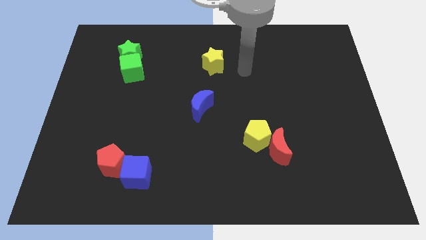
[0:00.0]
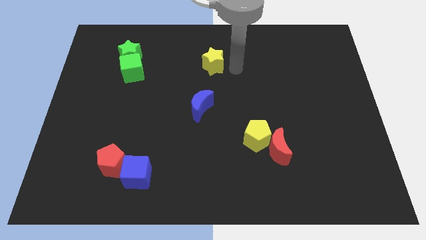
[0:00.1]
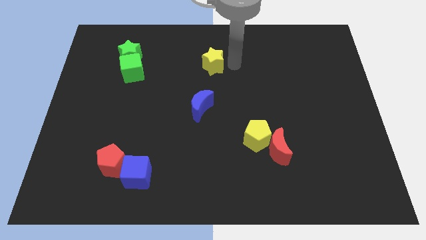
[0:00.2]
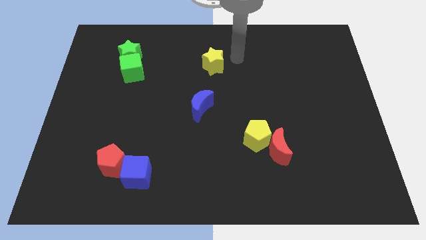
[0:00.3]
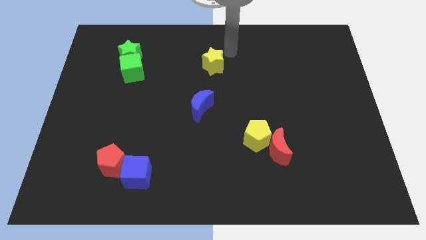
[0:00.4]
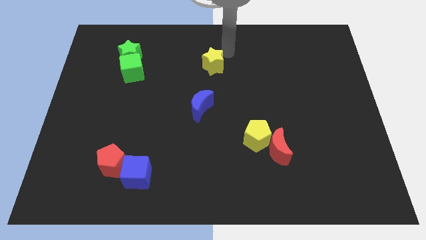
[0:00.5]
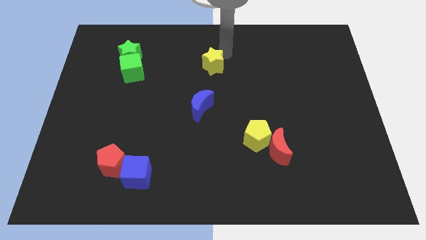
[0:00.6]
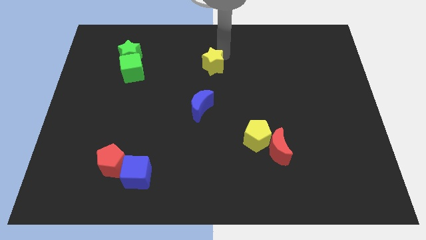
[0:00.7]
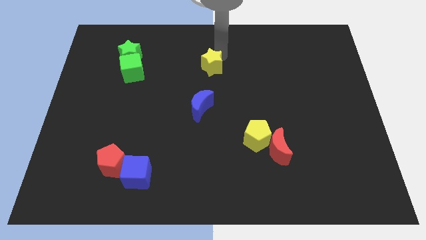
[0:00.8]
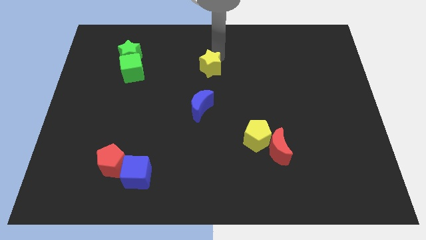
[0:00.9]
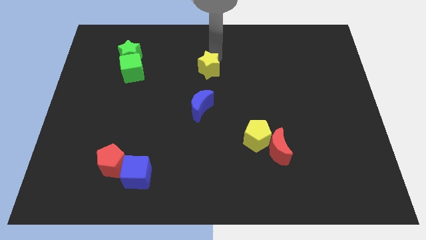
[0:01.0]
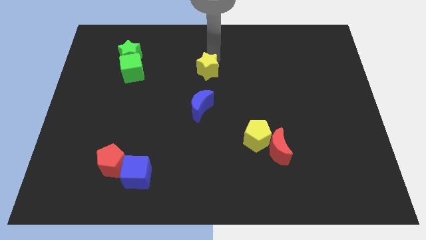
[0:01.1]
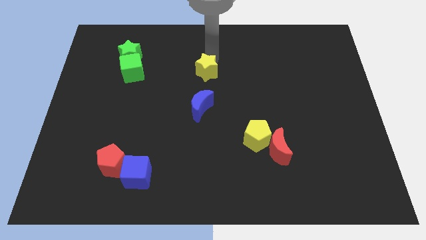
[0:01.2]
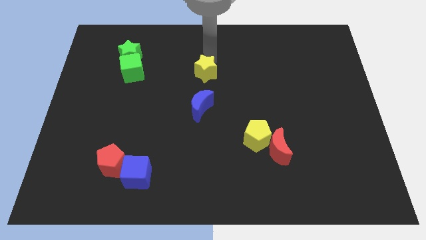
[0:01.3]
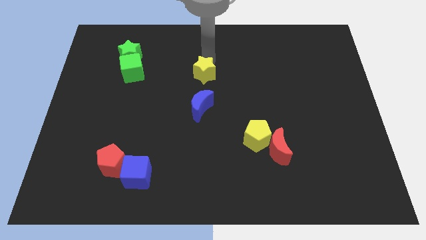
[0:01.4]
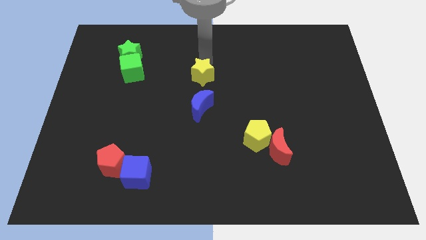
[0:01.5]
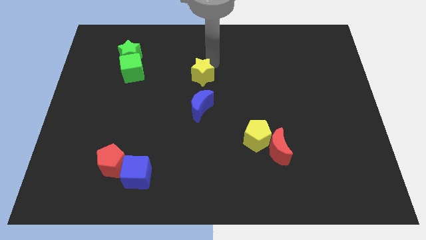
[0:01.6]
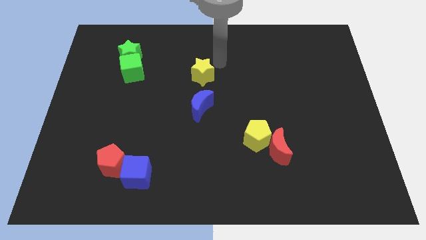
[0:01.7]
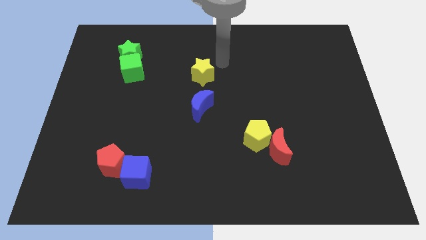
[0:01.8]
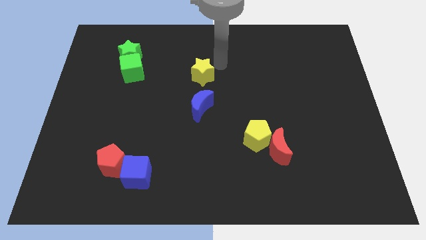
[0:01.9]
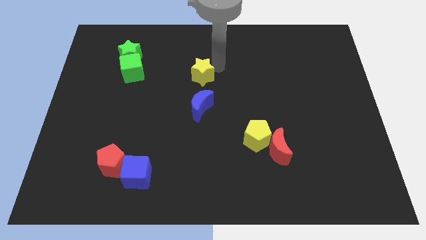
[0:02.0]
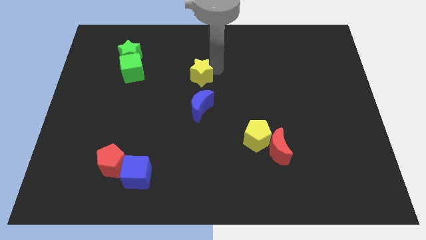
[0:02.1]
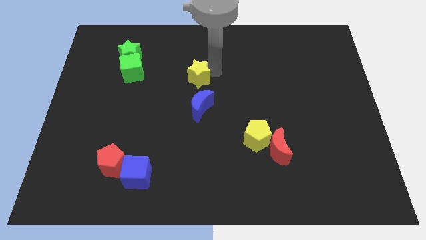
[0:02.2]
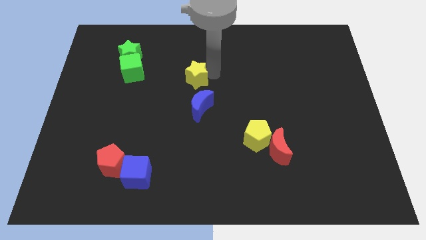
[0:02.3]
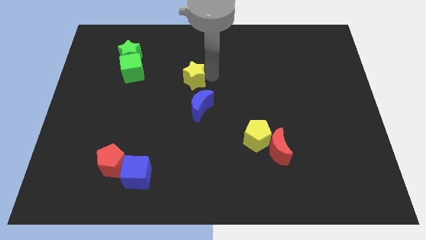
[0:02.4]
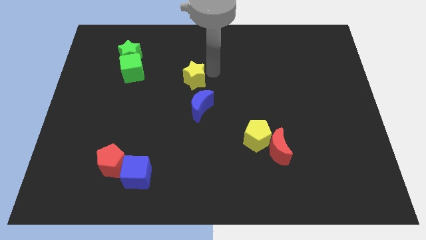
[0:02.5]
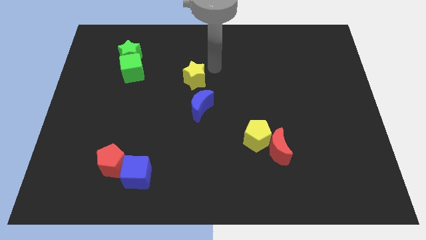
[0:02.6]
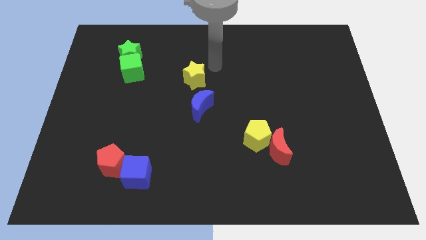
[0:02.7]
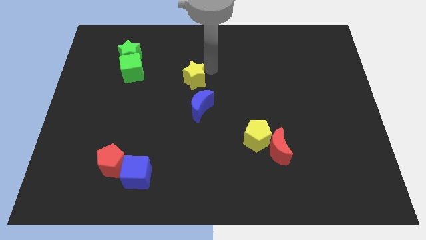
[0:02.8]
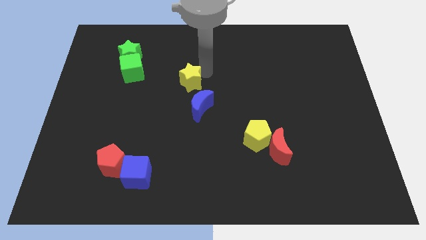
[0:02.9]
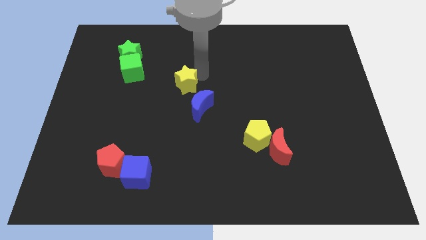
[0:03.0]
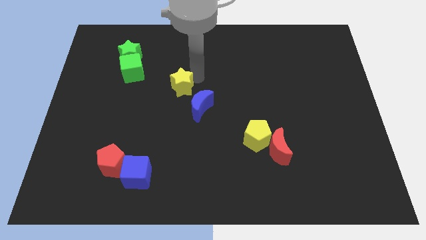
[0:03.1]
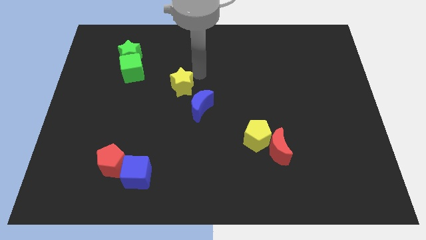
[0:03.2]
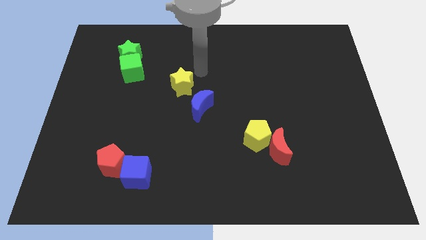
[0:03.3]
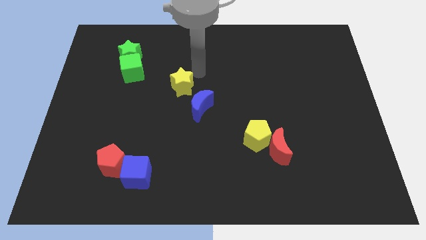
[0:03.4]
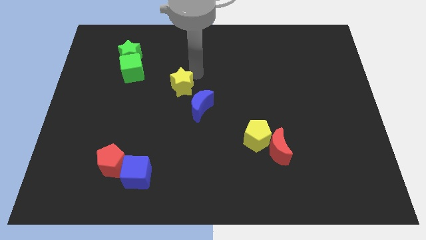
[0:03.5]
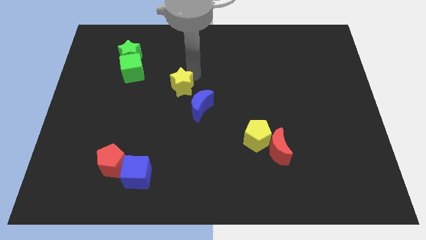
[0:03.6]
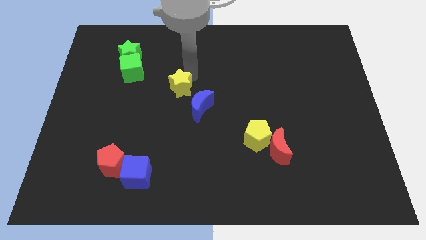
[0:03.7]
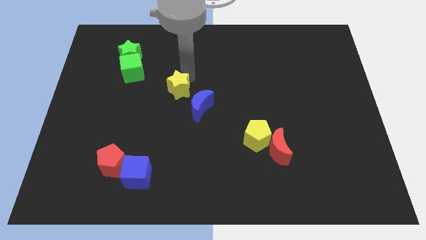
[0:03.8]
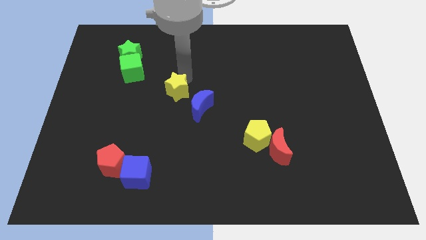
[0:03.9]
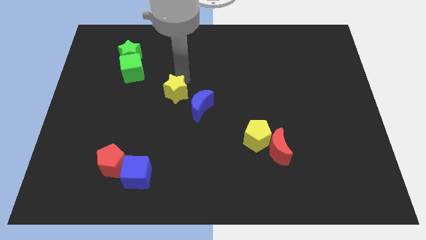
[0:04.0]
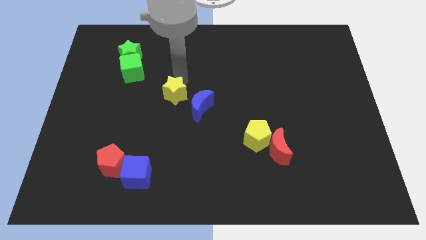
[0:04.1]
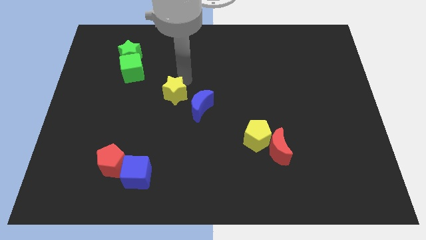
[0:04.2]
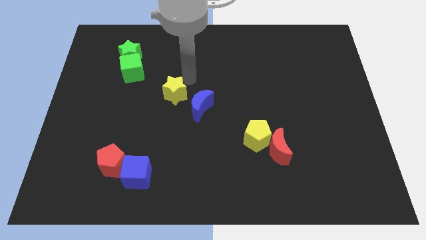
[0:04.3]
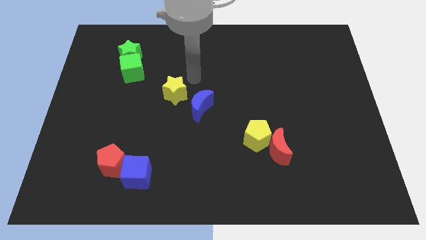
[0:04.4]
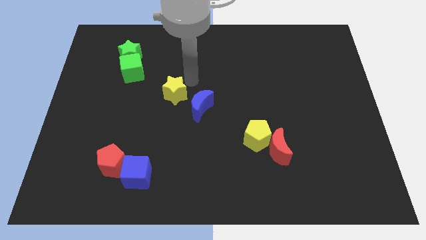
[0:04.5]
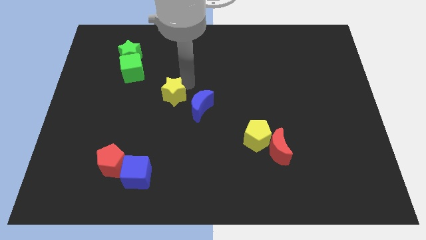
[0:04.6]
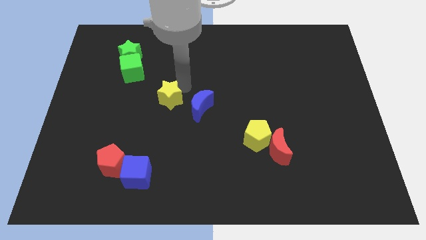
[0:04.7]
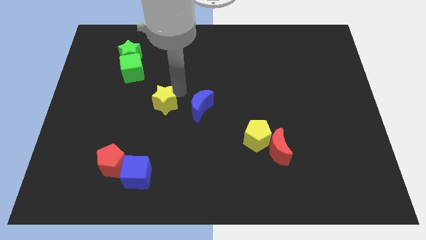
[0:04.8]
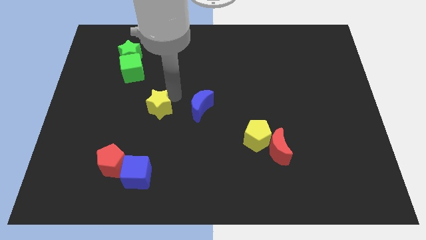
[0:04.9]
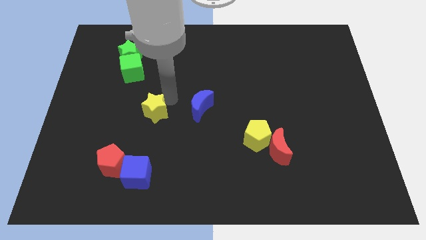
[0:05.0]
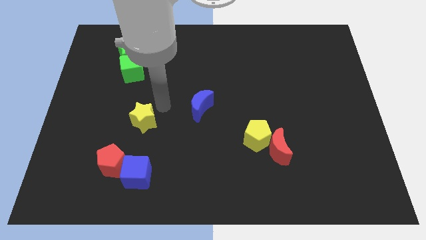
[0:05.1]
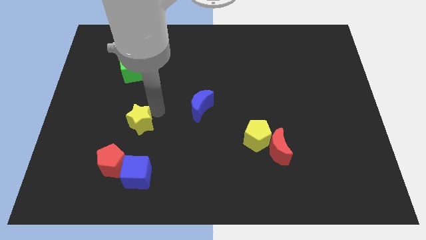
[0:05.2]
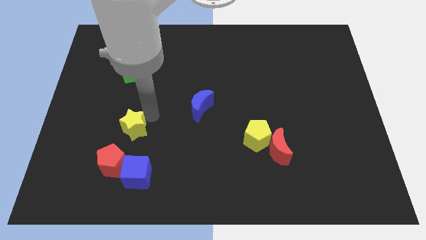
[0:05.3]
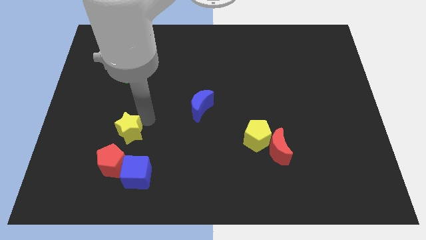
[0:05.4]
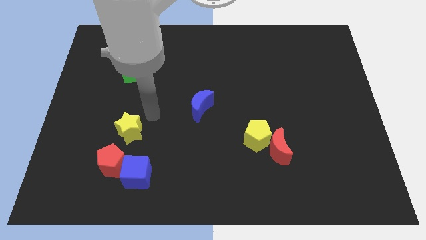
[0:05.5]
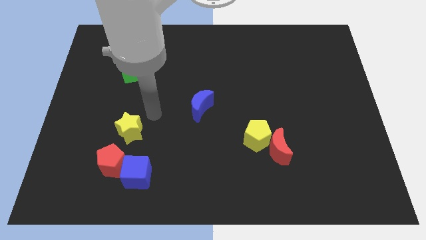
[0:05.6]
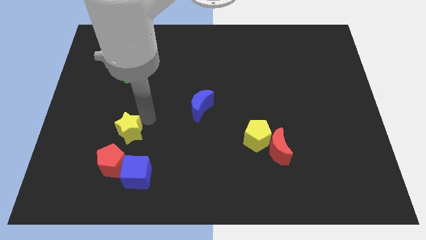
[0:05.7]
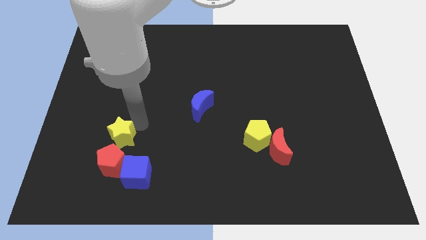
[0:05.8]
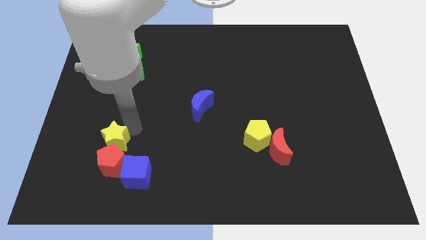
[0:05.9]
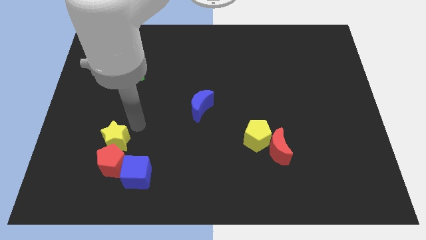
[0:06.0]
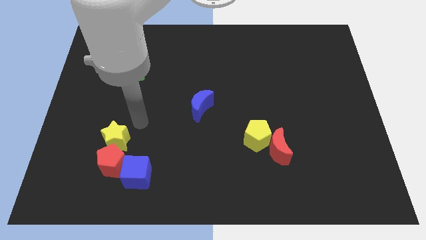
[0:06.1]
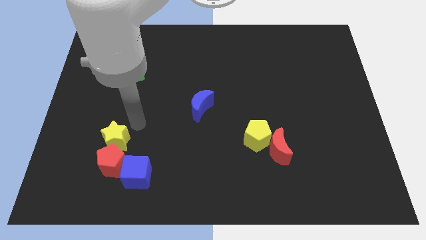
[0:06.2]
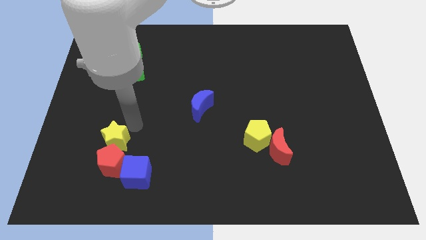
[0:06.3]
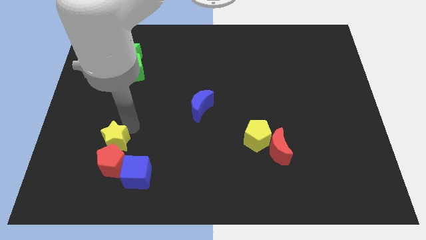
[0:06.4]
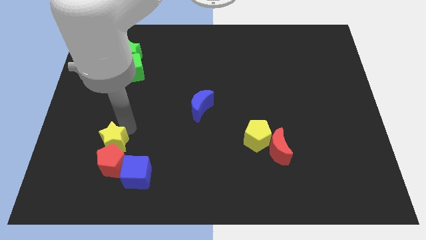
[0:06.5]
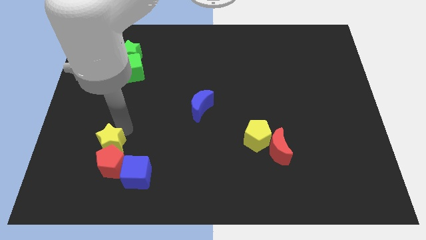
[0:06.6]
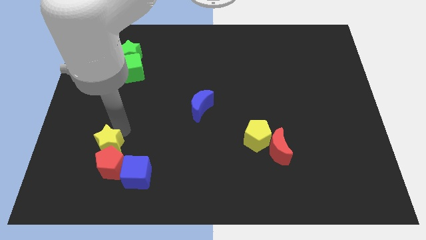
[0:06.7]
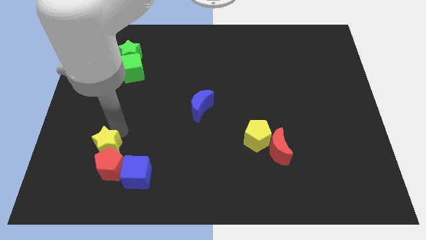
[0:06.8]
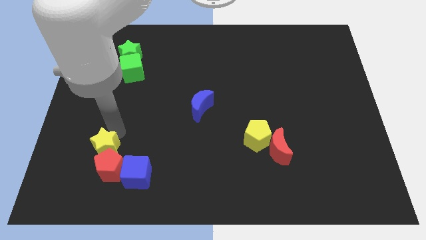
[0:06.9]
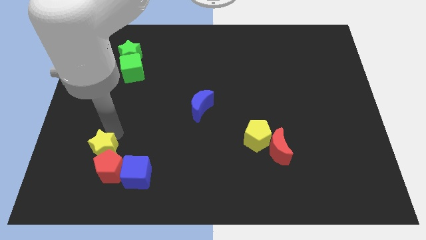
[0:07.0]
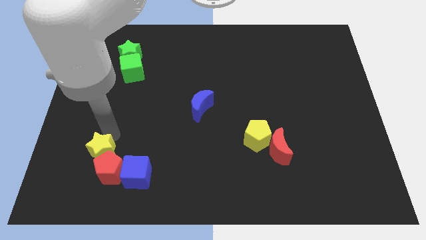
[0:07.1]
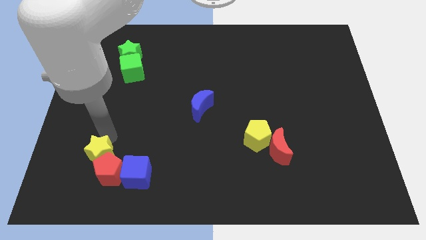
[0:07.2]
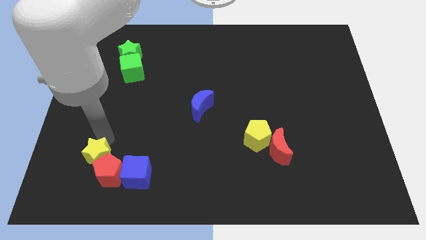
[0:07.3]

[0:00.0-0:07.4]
put the yellow star to the left of the blue cube
